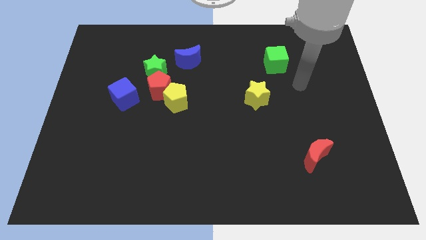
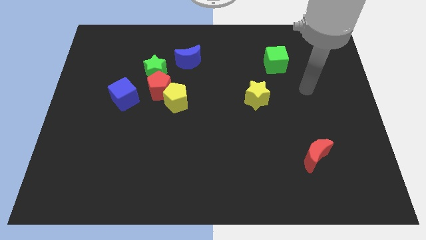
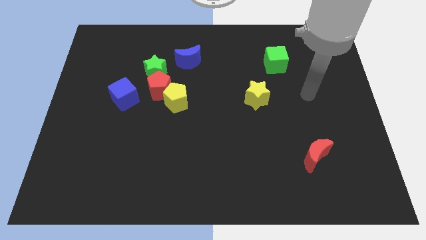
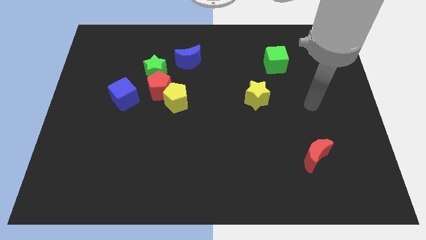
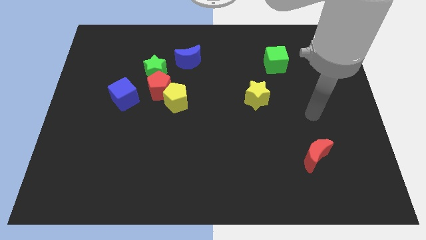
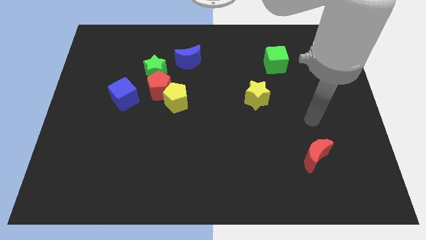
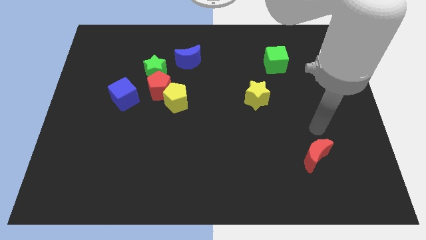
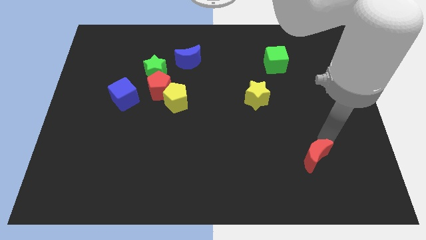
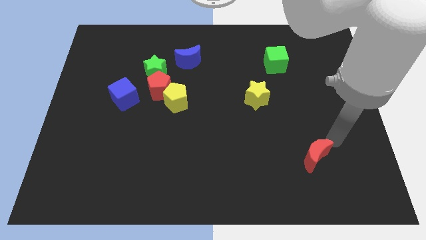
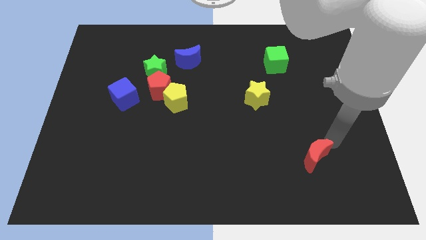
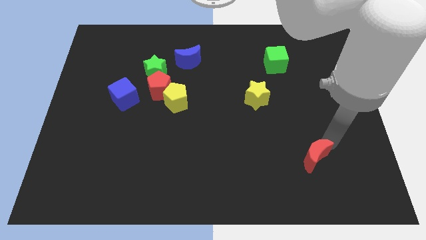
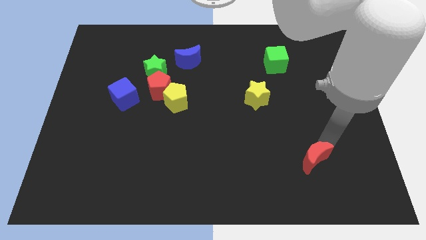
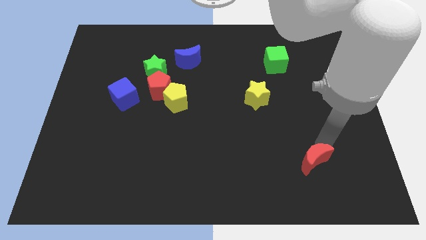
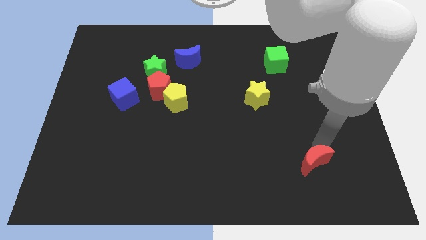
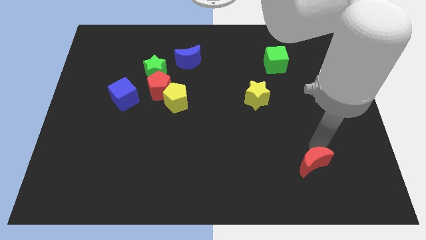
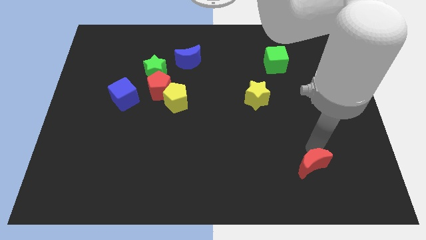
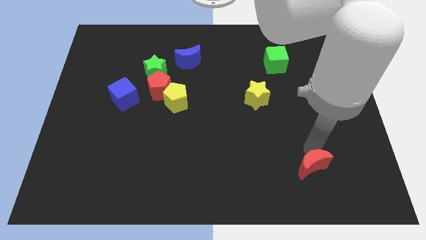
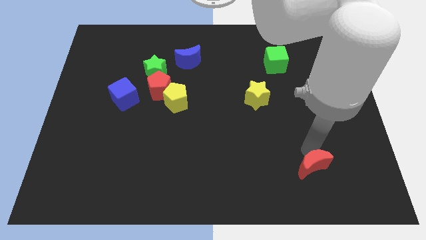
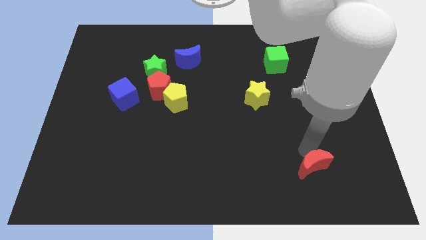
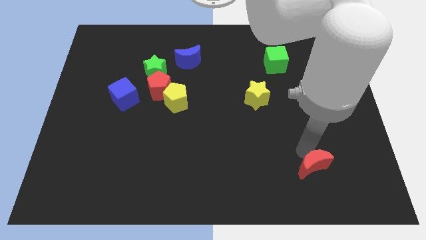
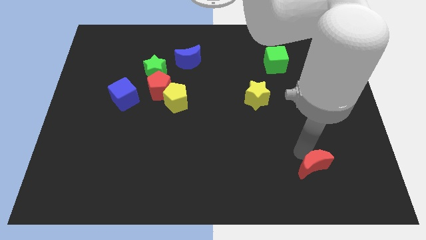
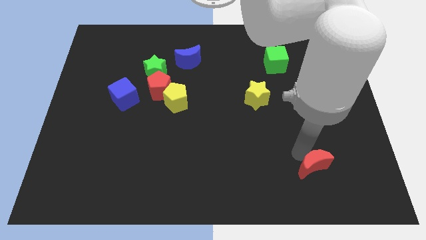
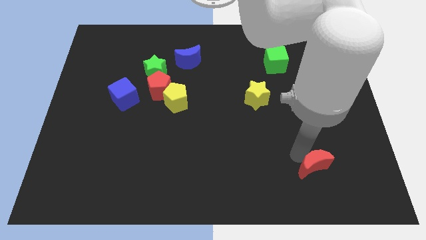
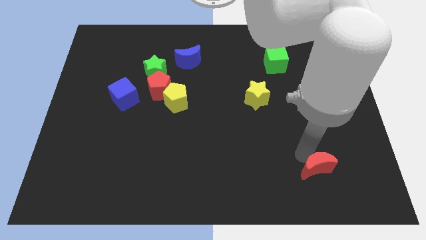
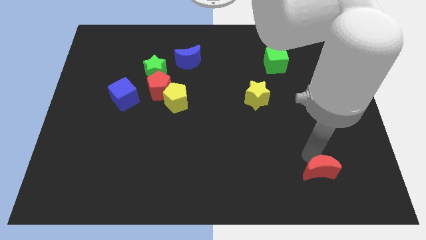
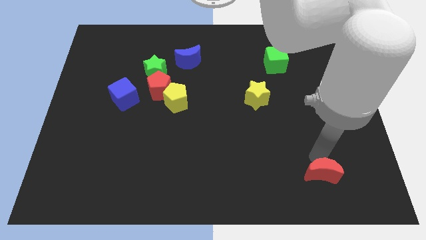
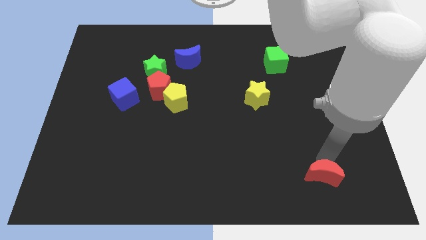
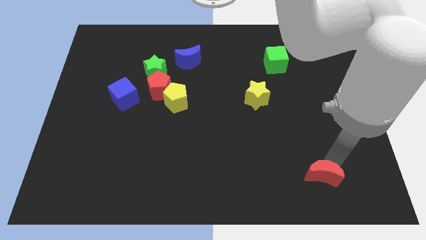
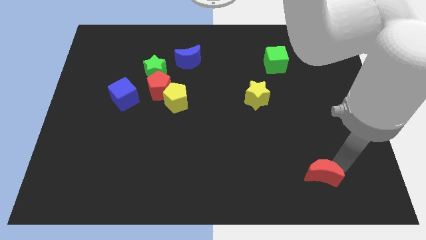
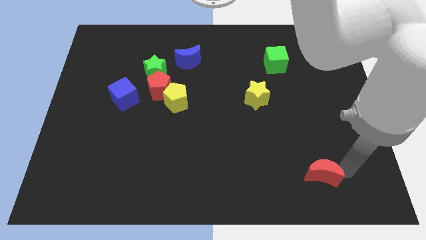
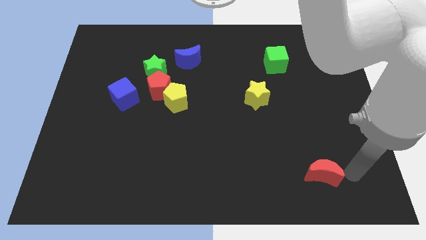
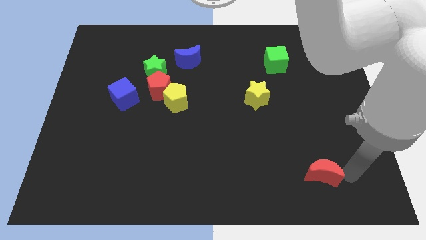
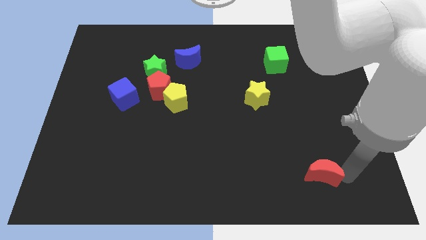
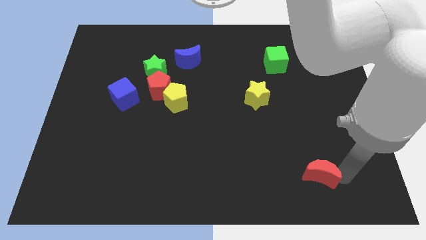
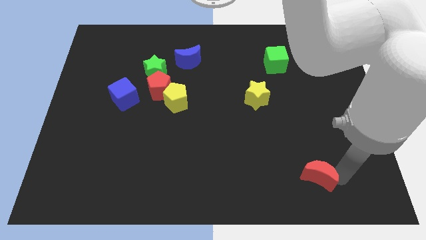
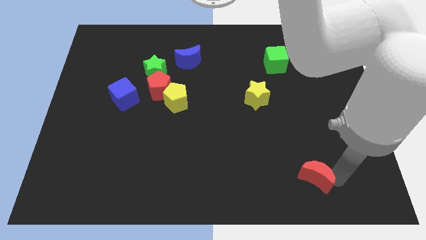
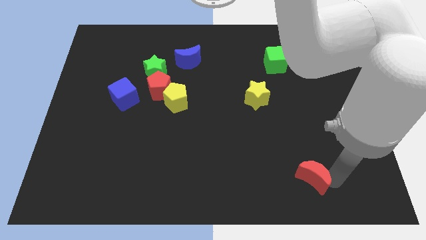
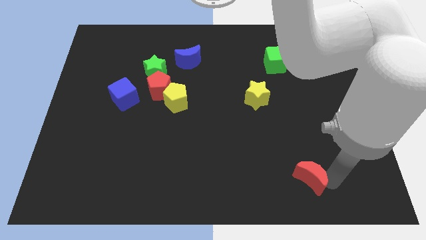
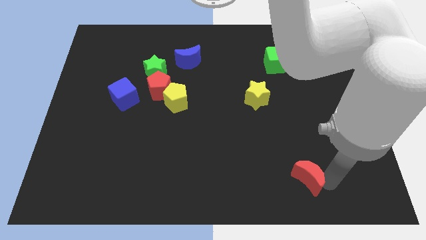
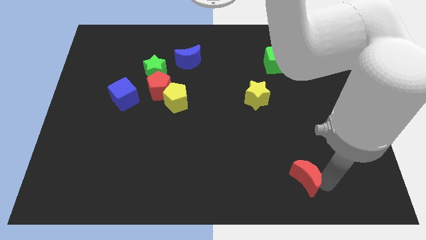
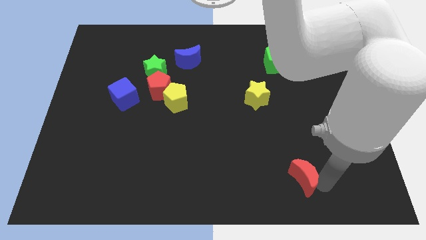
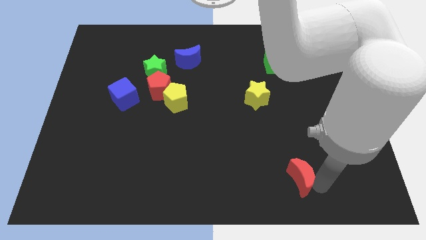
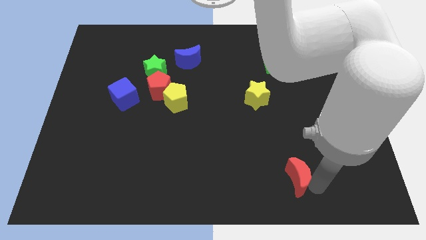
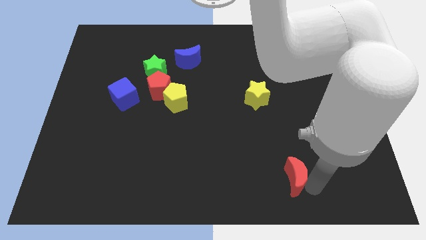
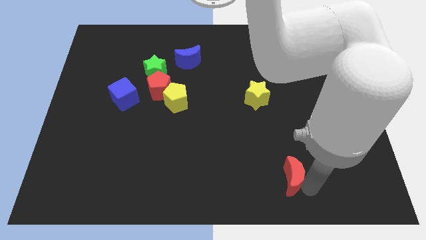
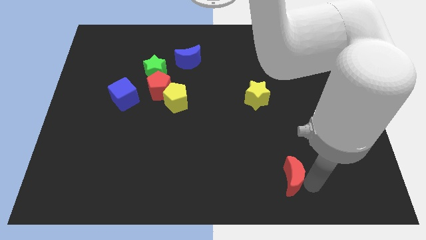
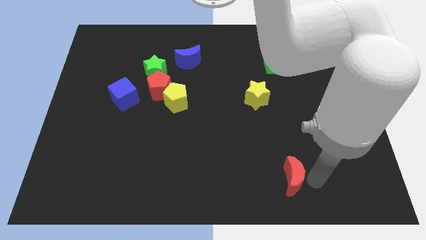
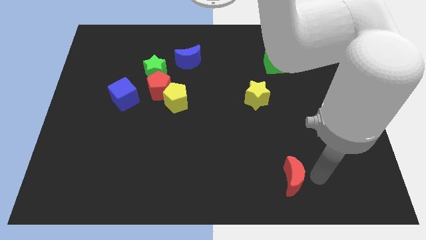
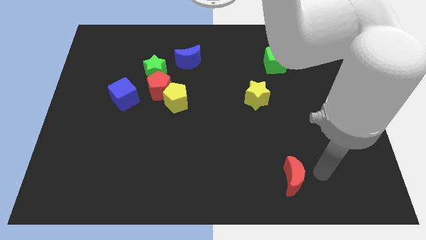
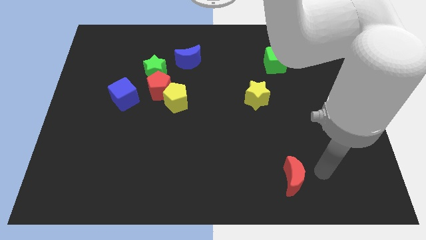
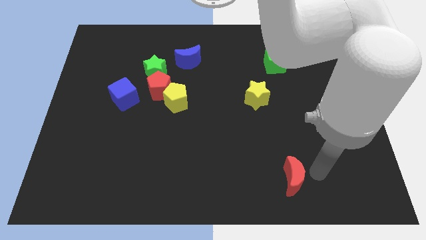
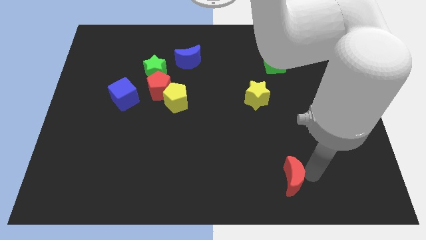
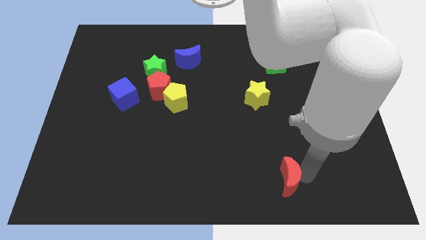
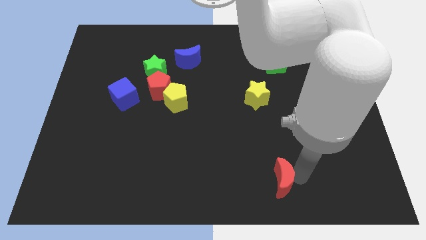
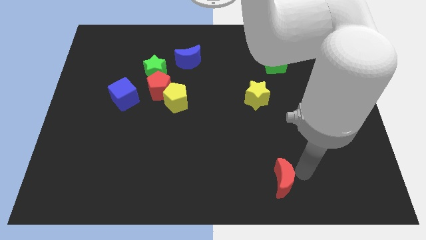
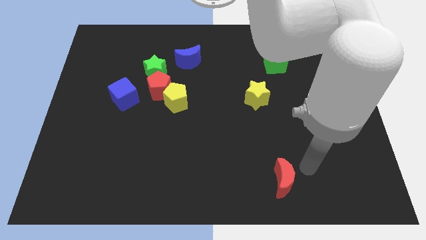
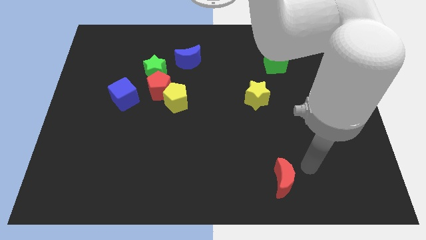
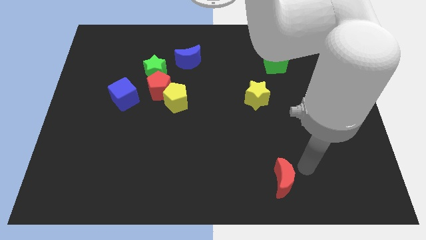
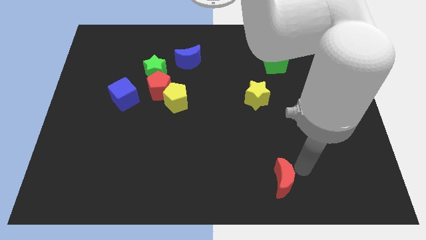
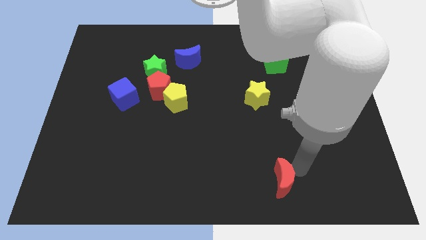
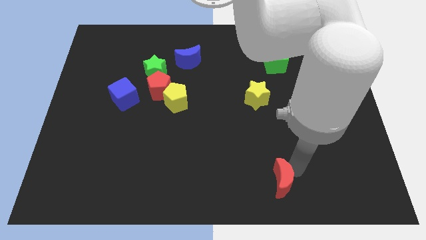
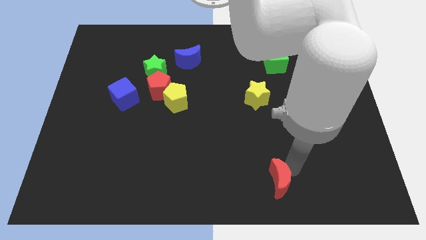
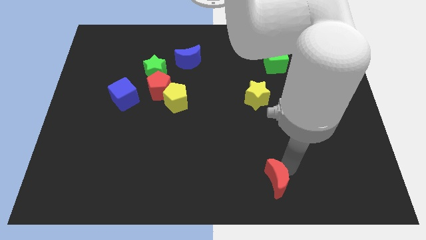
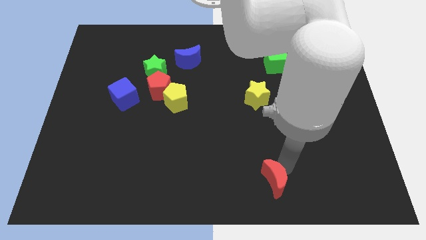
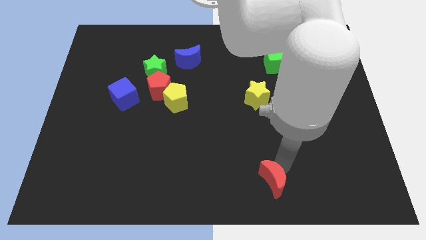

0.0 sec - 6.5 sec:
slide the red moon to the bottom

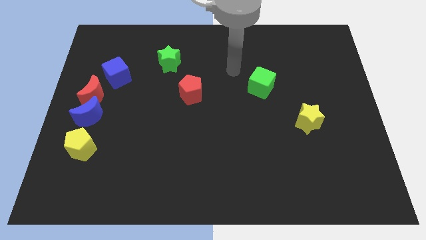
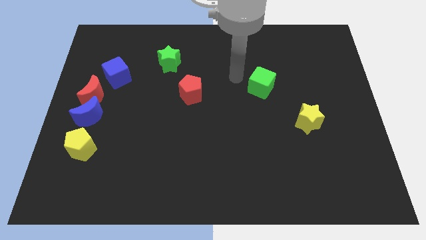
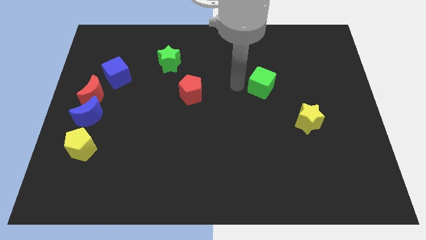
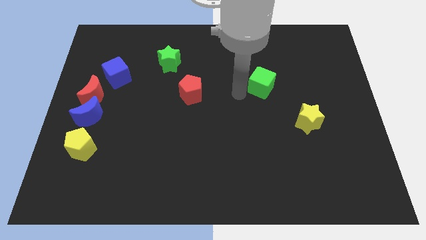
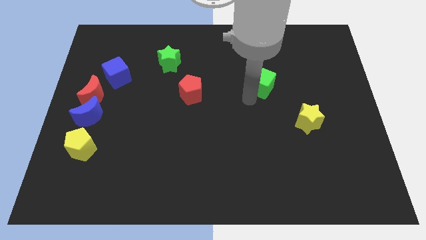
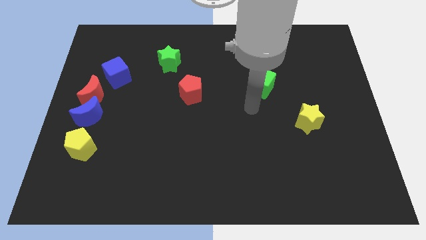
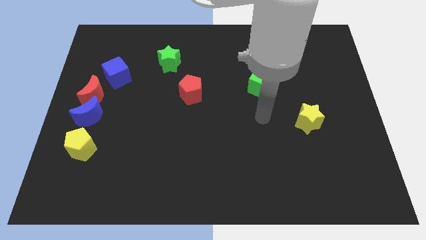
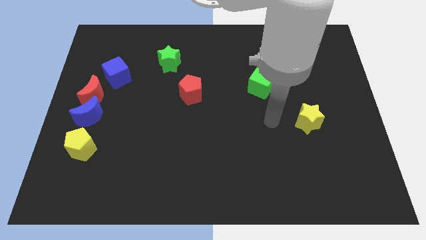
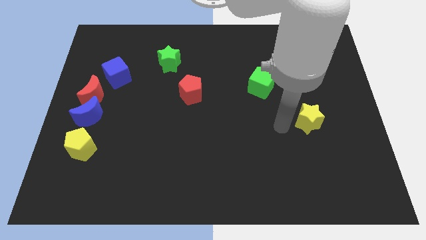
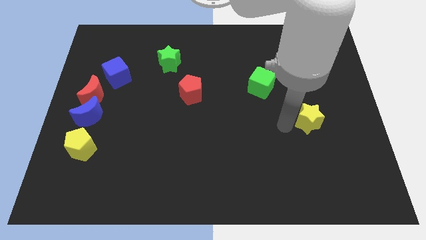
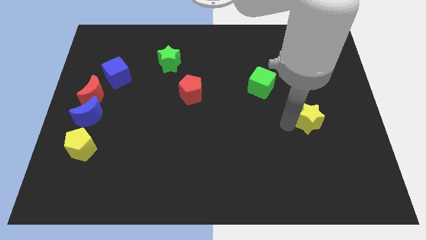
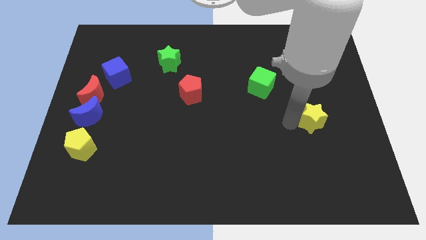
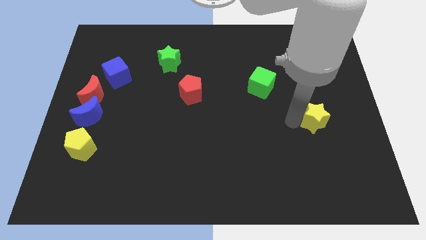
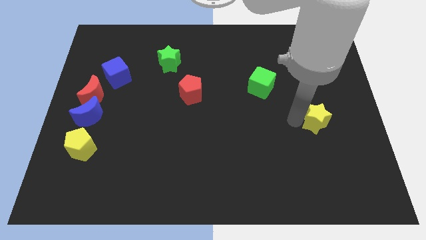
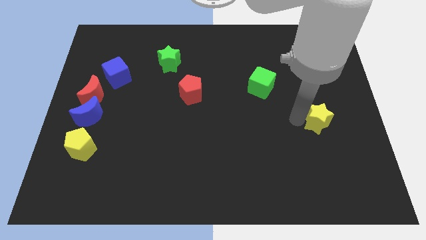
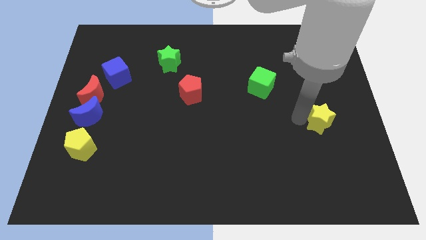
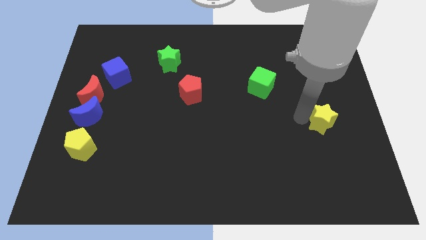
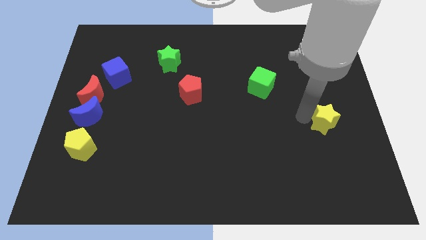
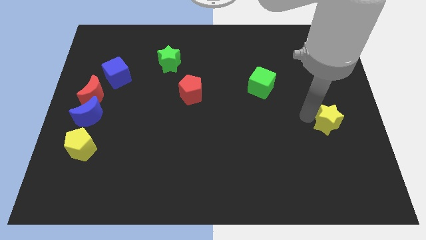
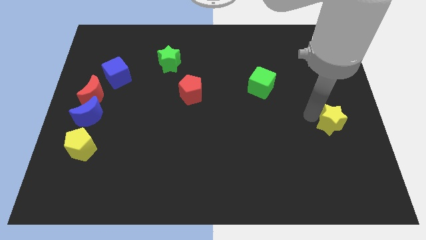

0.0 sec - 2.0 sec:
put the yellow star to the center right
